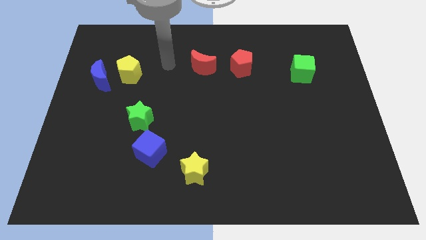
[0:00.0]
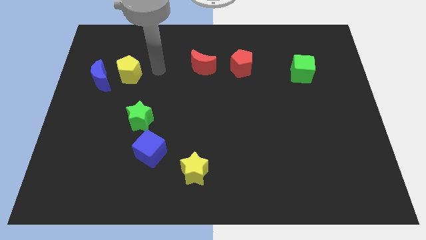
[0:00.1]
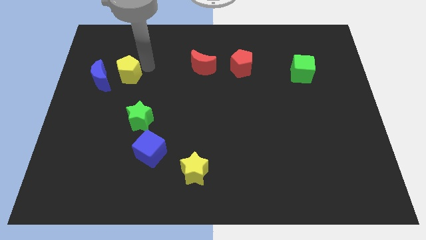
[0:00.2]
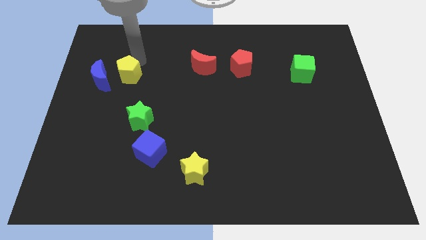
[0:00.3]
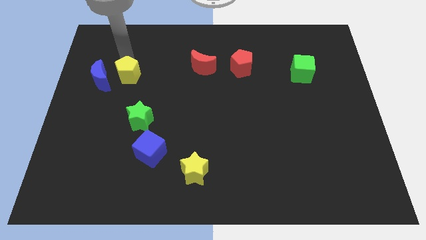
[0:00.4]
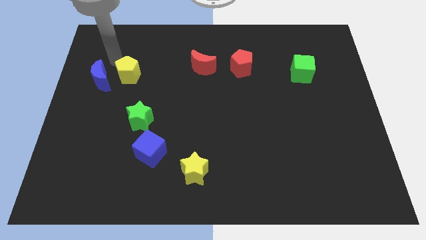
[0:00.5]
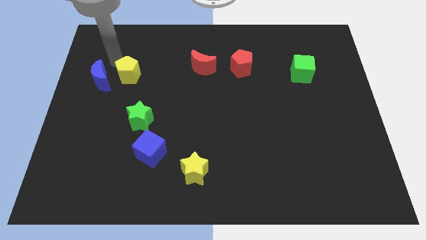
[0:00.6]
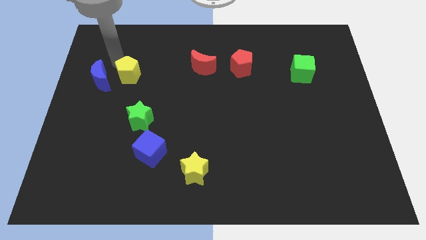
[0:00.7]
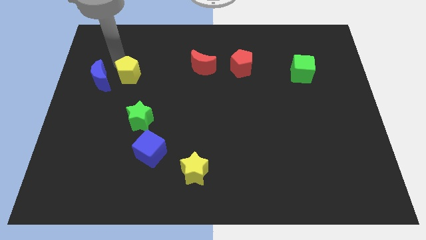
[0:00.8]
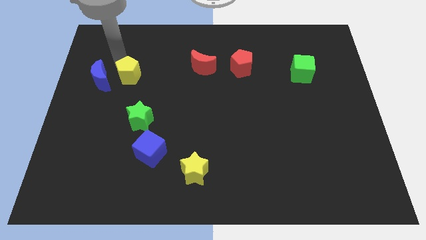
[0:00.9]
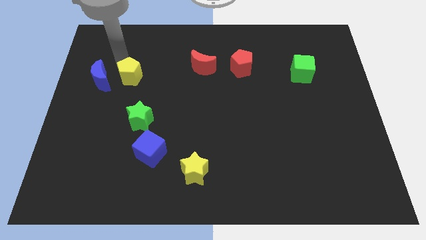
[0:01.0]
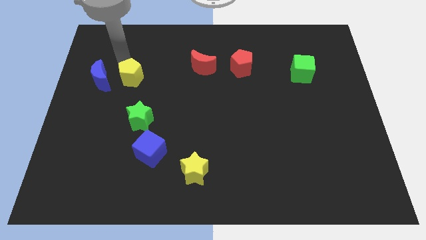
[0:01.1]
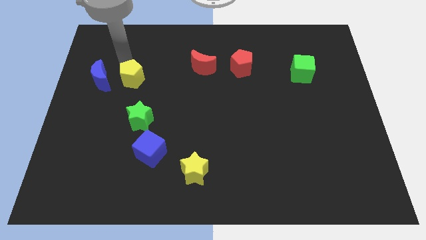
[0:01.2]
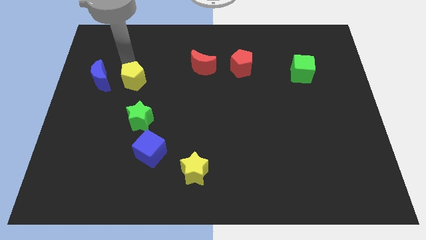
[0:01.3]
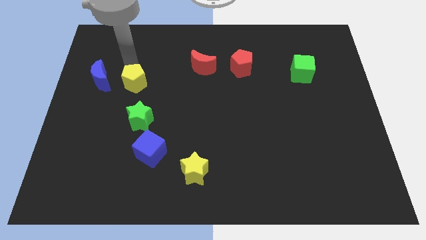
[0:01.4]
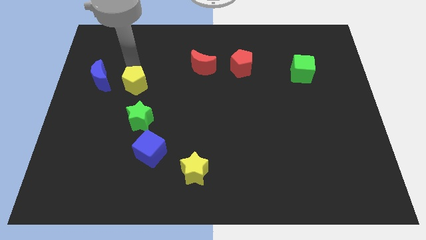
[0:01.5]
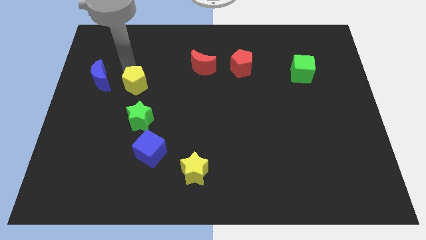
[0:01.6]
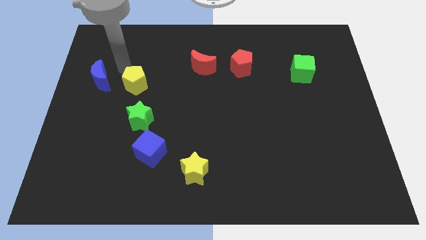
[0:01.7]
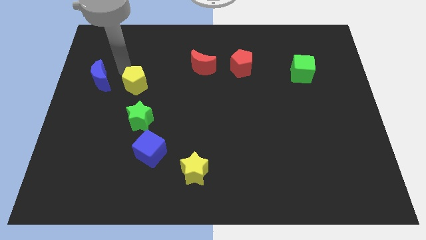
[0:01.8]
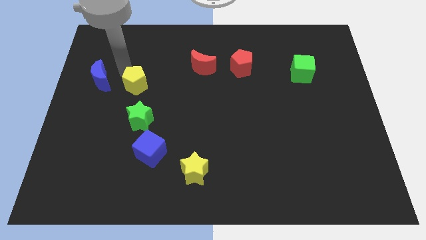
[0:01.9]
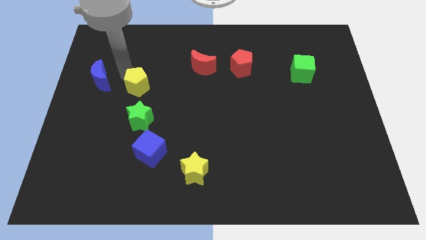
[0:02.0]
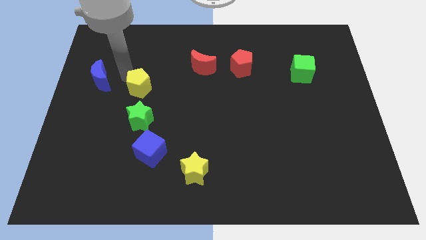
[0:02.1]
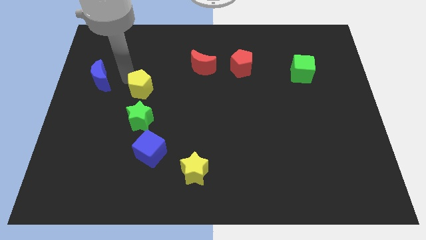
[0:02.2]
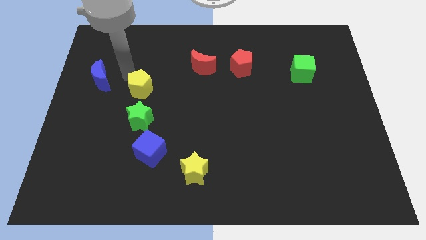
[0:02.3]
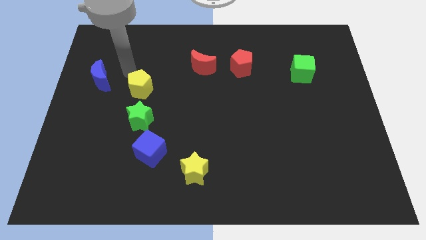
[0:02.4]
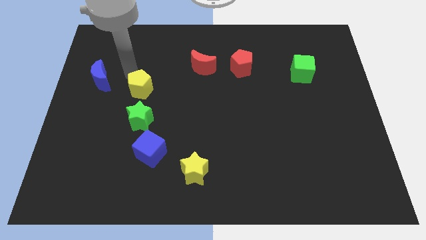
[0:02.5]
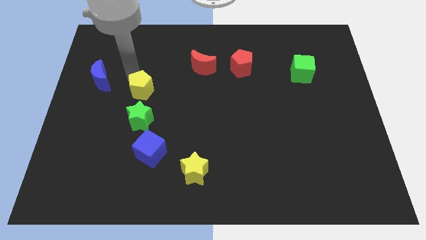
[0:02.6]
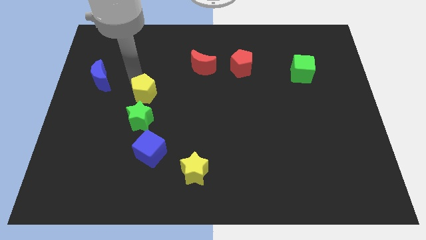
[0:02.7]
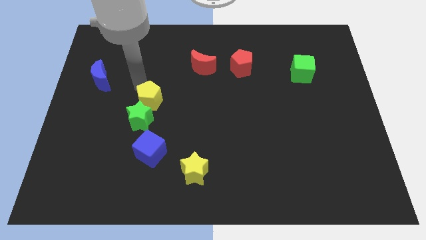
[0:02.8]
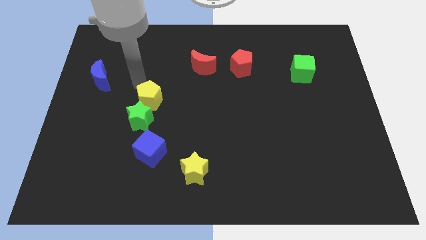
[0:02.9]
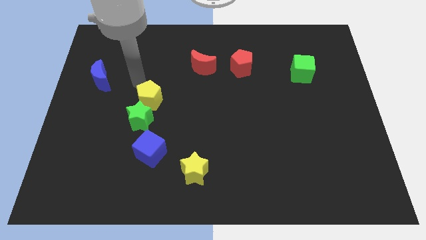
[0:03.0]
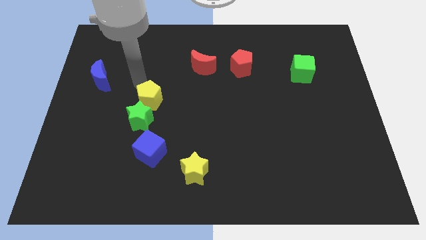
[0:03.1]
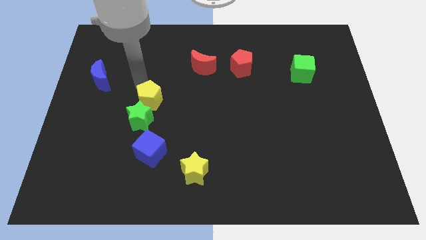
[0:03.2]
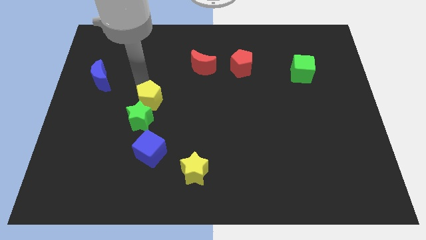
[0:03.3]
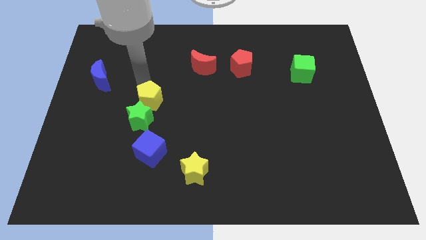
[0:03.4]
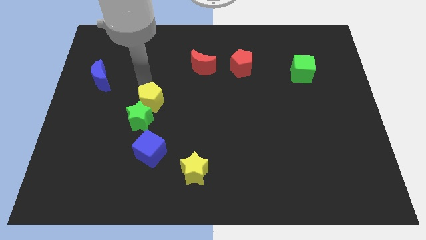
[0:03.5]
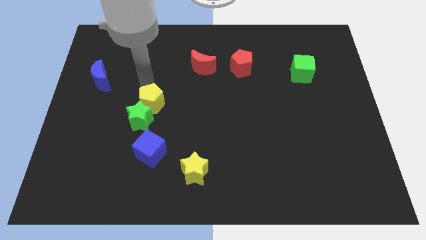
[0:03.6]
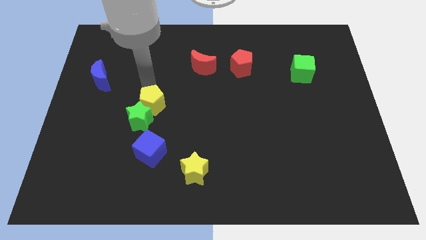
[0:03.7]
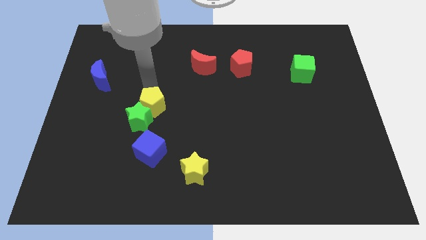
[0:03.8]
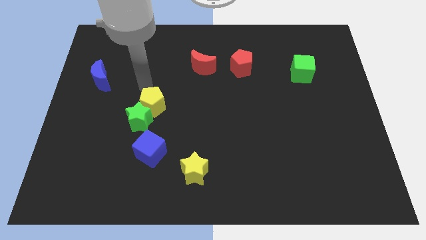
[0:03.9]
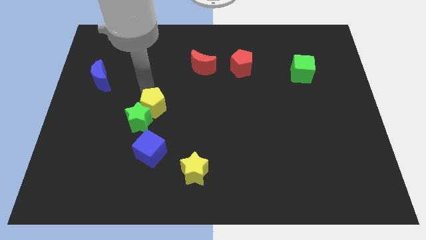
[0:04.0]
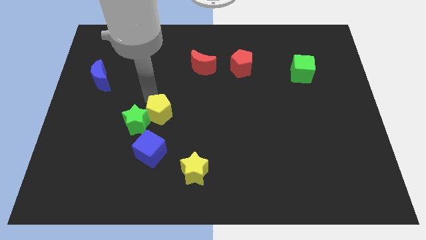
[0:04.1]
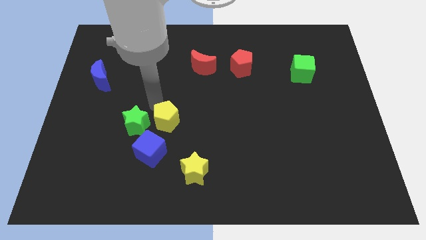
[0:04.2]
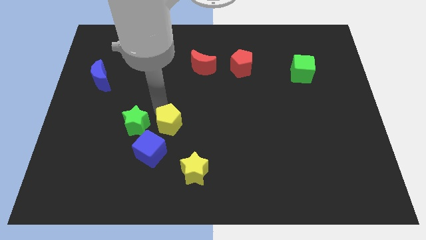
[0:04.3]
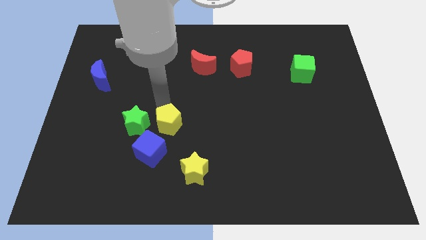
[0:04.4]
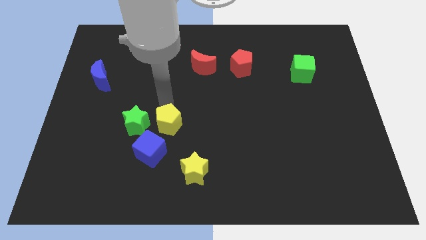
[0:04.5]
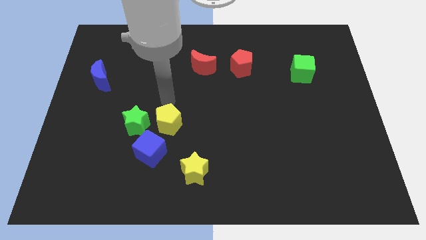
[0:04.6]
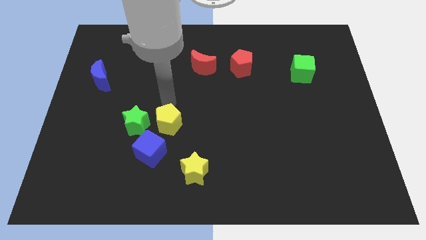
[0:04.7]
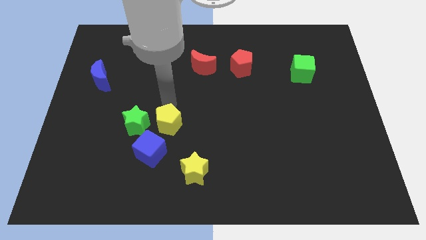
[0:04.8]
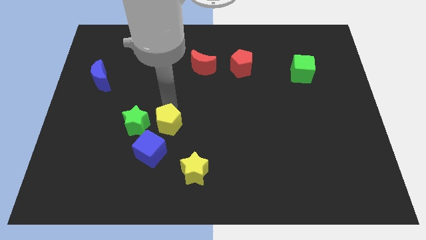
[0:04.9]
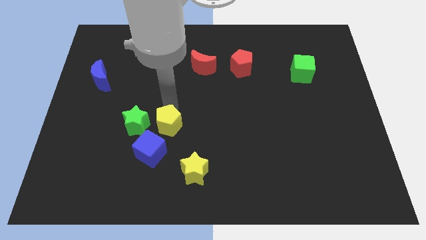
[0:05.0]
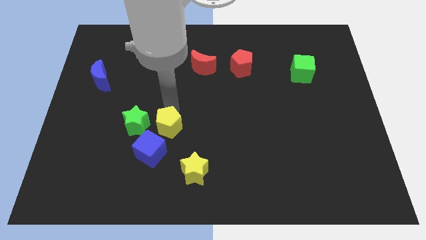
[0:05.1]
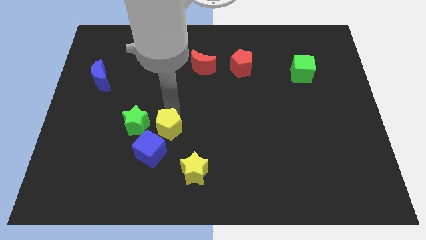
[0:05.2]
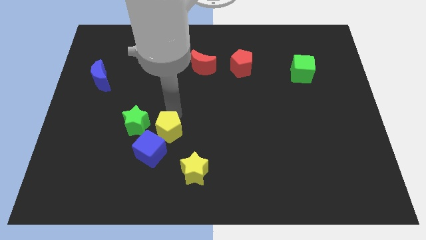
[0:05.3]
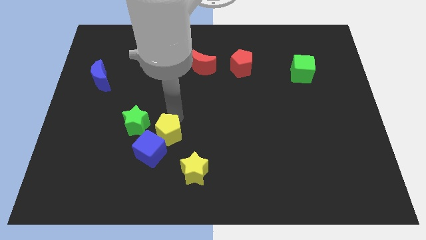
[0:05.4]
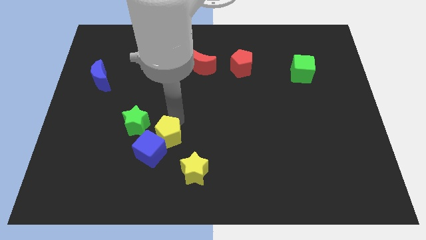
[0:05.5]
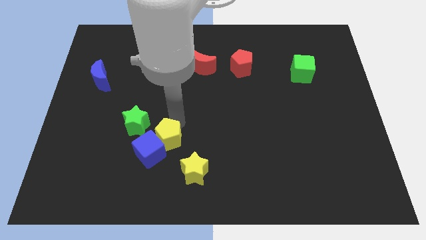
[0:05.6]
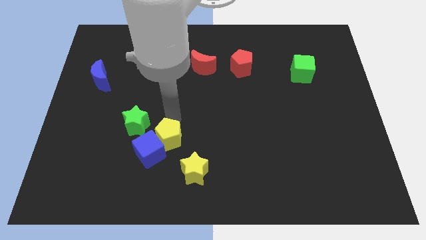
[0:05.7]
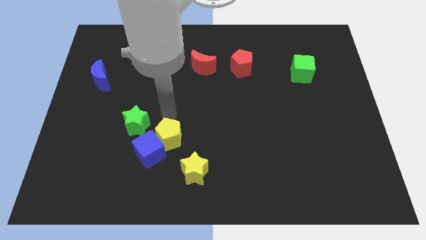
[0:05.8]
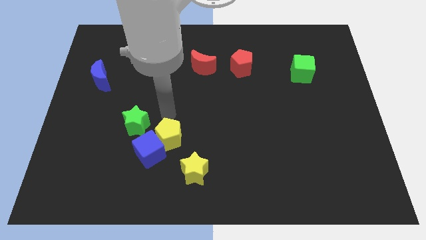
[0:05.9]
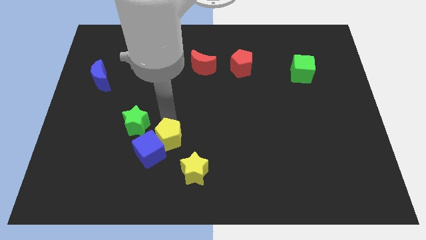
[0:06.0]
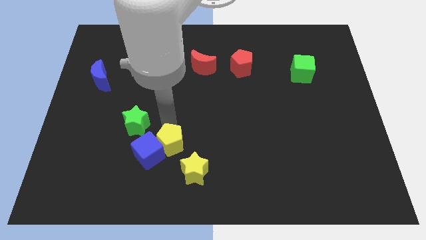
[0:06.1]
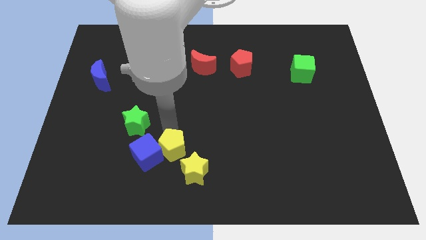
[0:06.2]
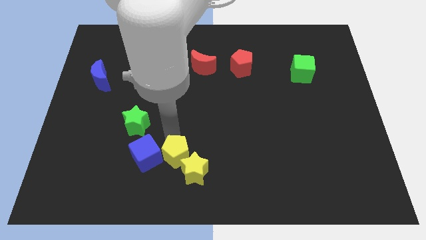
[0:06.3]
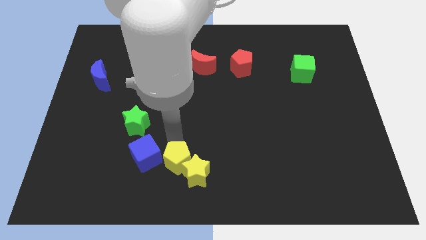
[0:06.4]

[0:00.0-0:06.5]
push the yellow pentagon to the bottom
